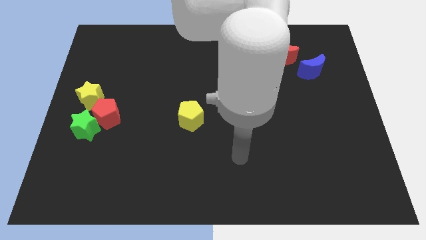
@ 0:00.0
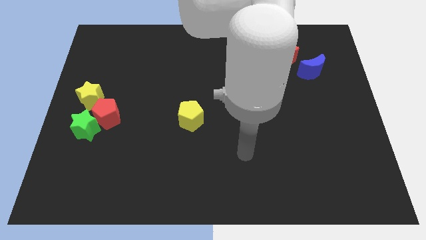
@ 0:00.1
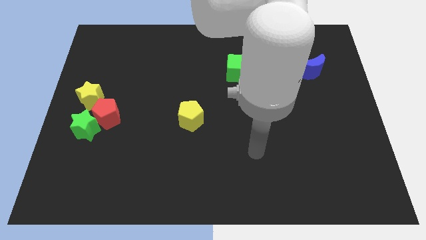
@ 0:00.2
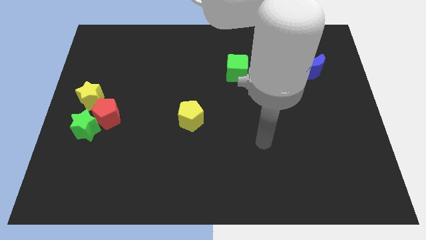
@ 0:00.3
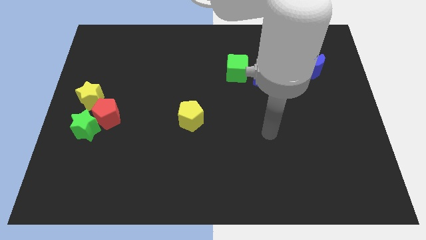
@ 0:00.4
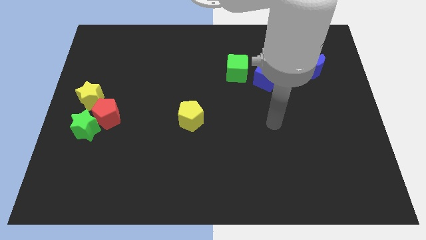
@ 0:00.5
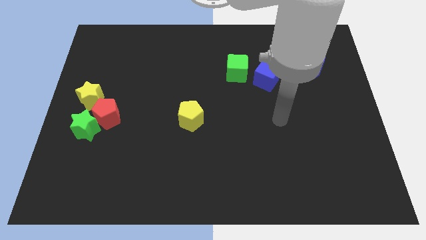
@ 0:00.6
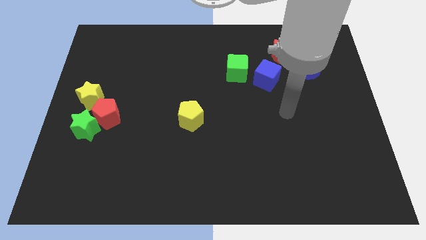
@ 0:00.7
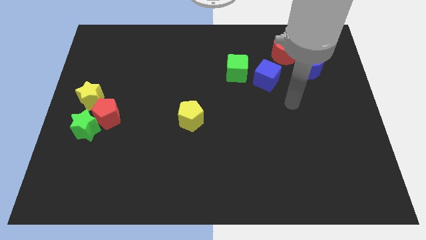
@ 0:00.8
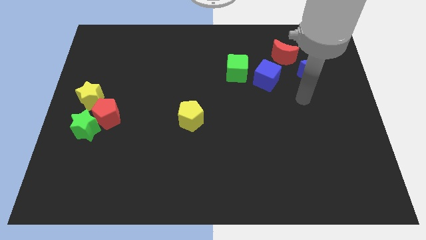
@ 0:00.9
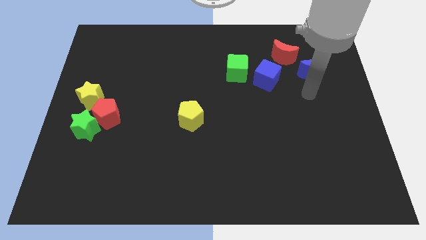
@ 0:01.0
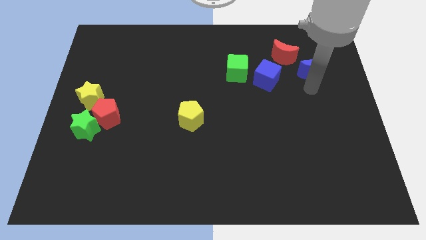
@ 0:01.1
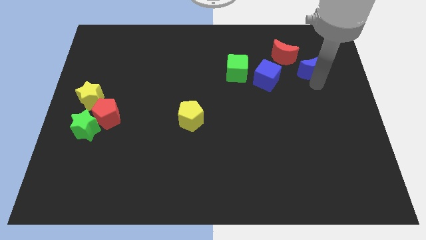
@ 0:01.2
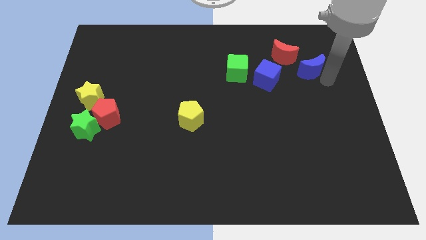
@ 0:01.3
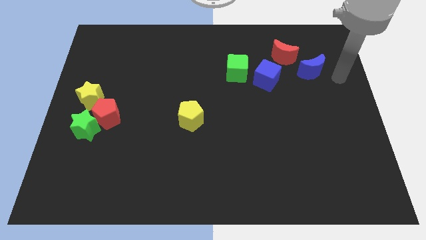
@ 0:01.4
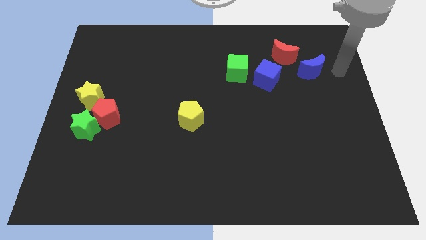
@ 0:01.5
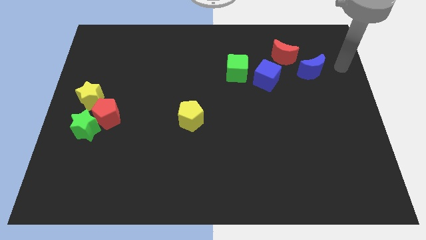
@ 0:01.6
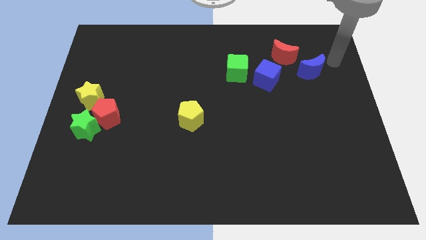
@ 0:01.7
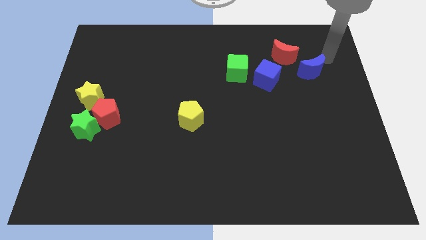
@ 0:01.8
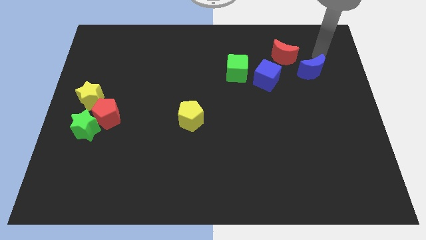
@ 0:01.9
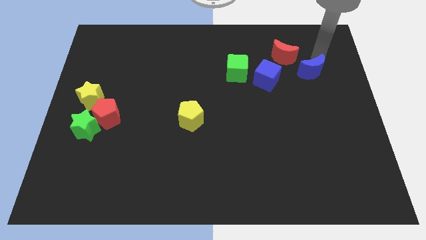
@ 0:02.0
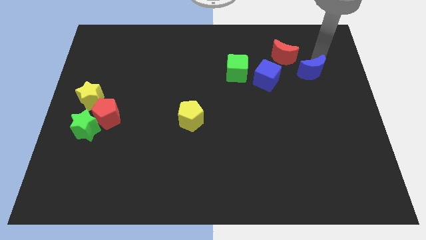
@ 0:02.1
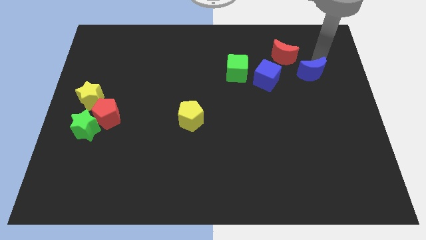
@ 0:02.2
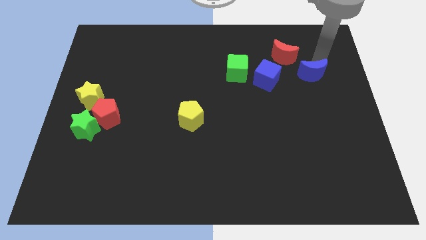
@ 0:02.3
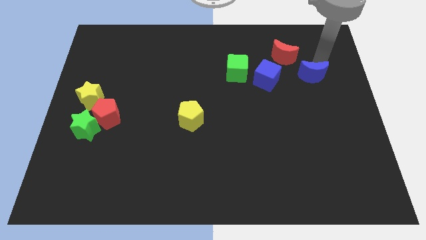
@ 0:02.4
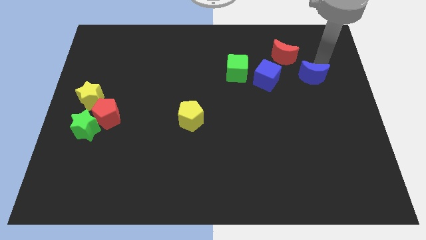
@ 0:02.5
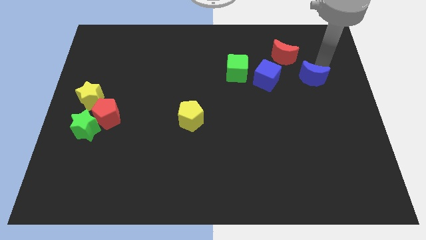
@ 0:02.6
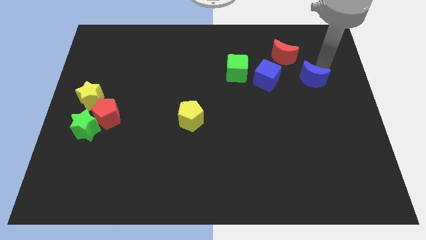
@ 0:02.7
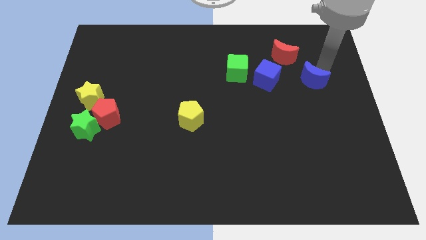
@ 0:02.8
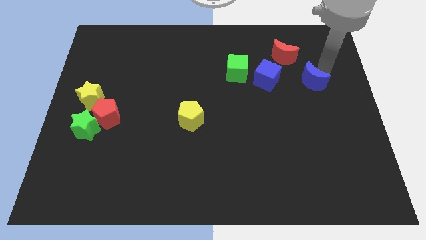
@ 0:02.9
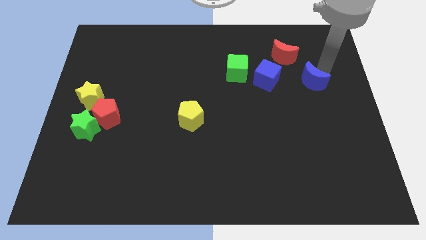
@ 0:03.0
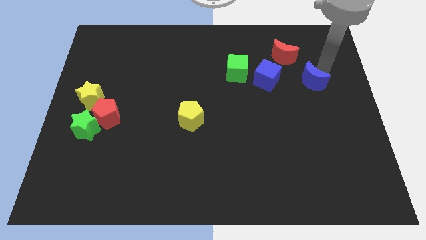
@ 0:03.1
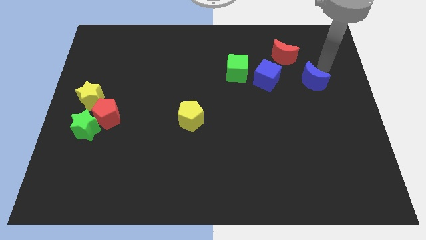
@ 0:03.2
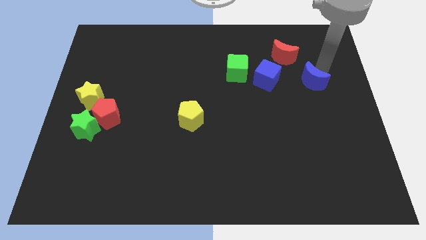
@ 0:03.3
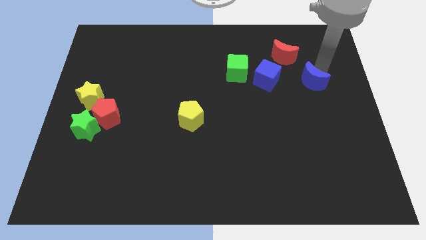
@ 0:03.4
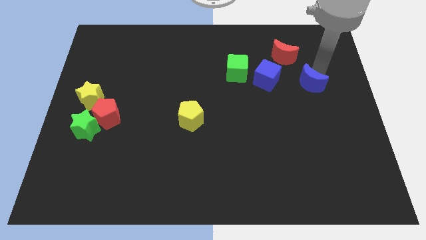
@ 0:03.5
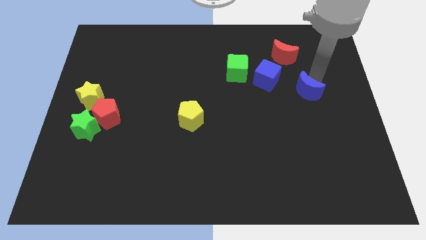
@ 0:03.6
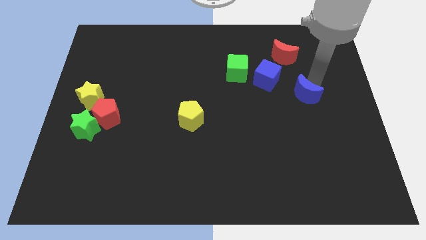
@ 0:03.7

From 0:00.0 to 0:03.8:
slide the blue moon diagonally downwards and to the left a little bit

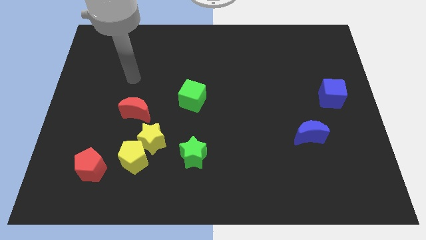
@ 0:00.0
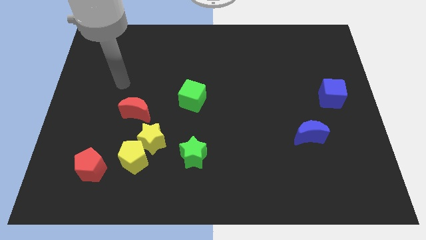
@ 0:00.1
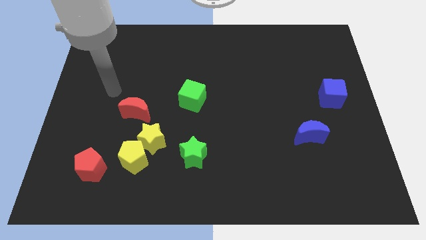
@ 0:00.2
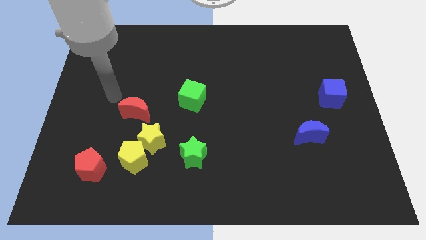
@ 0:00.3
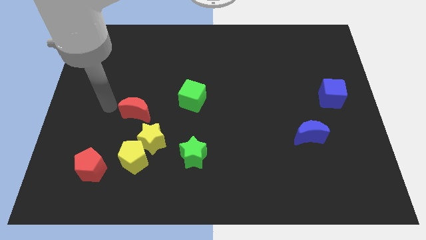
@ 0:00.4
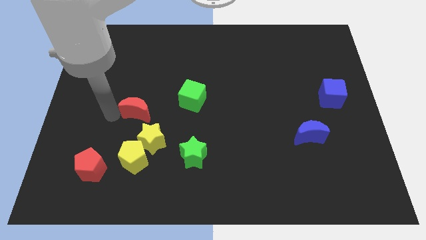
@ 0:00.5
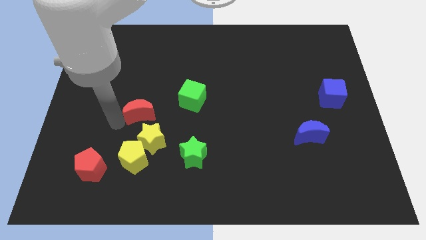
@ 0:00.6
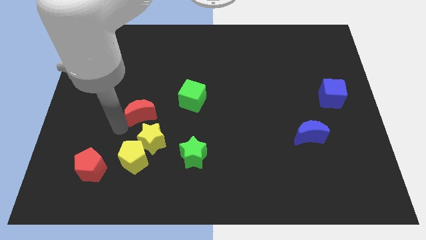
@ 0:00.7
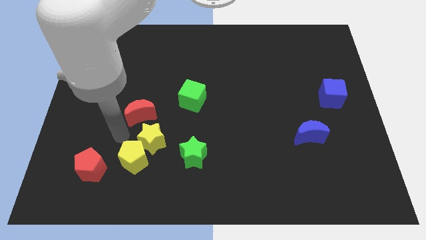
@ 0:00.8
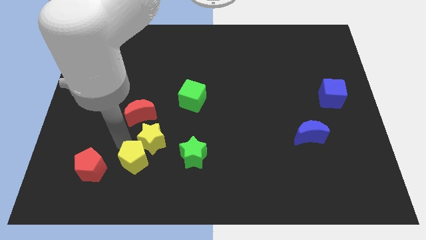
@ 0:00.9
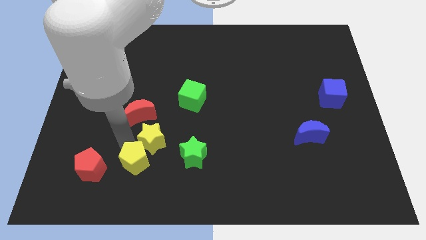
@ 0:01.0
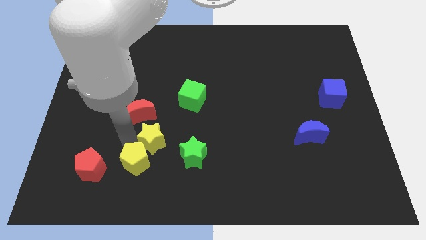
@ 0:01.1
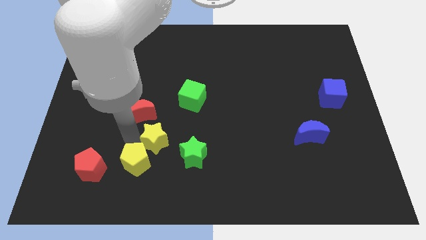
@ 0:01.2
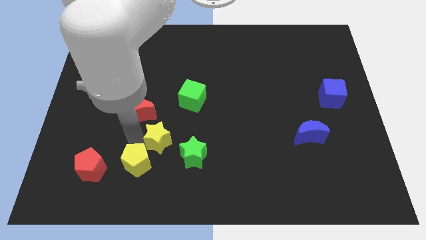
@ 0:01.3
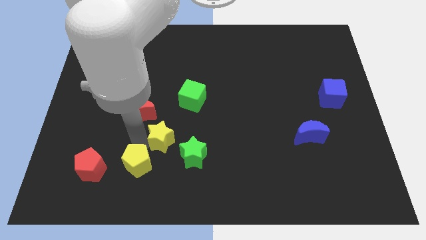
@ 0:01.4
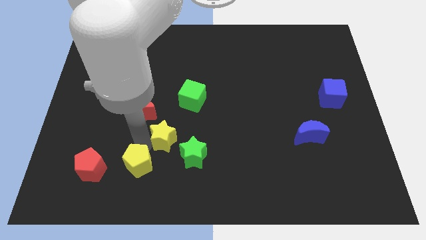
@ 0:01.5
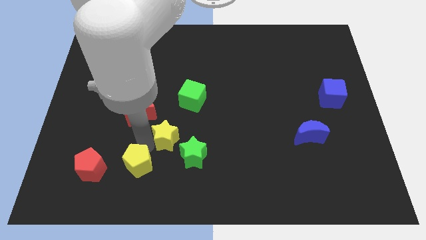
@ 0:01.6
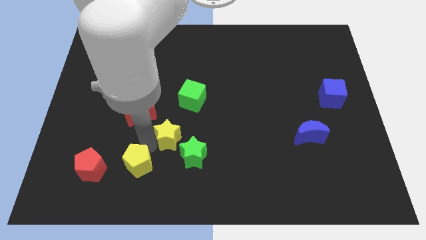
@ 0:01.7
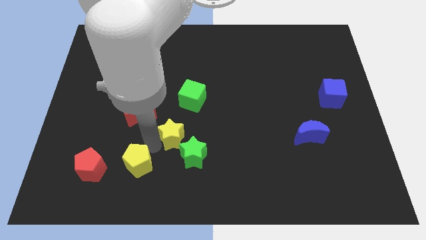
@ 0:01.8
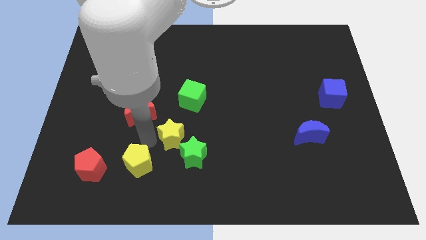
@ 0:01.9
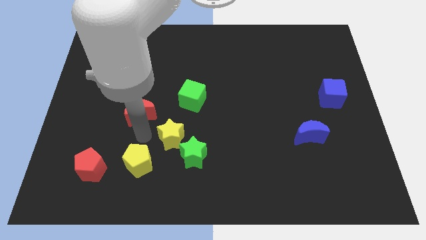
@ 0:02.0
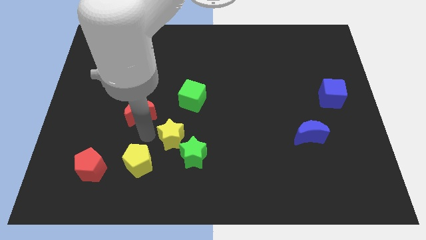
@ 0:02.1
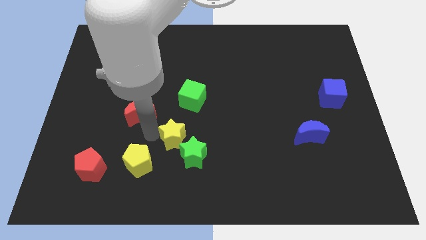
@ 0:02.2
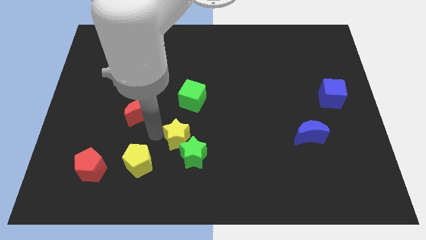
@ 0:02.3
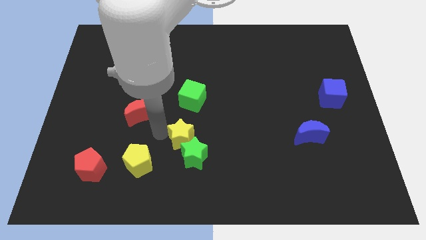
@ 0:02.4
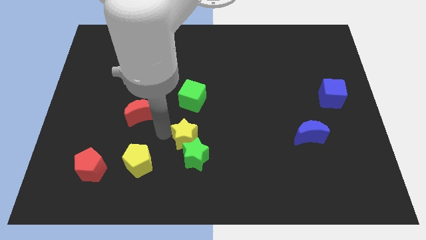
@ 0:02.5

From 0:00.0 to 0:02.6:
move the yellow star to the right slightly

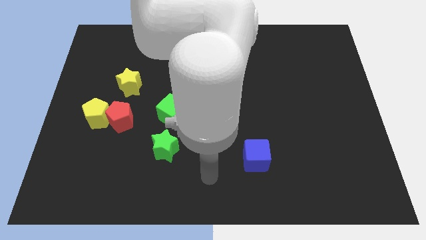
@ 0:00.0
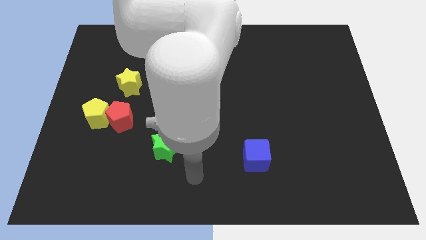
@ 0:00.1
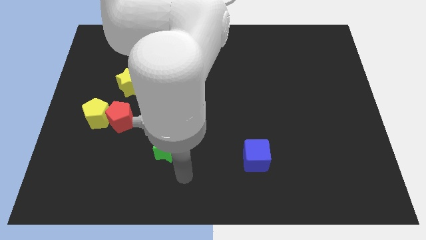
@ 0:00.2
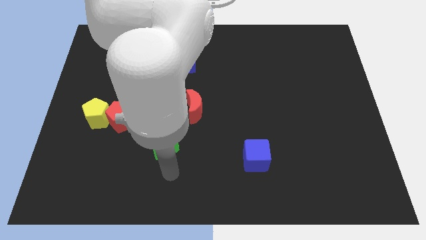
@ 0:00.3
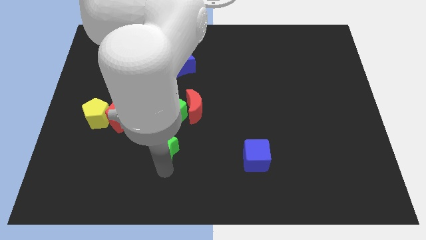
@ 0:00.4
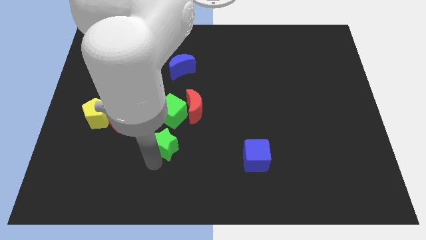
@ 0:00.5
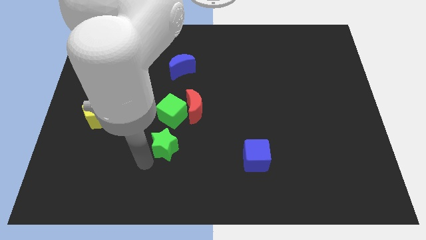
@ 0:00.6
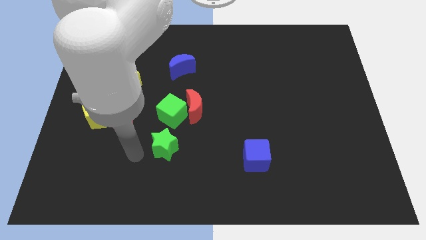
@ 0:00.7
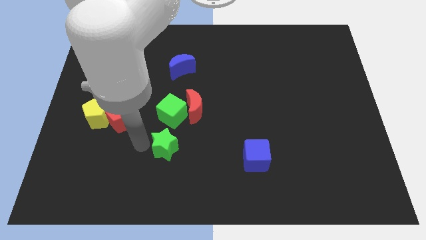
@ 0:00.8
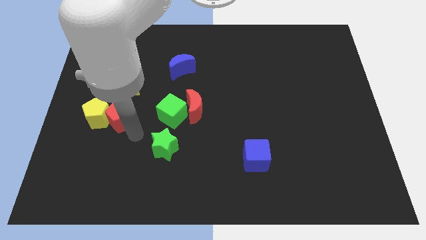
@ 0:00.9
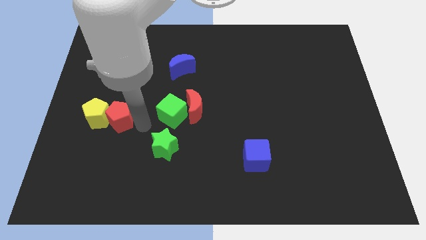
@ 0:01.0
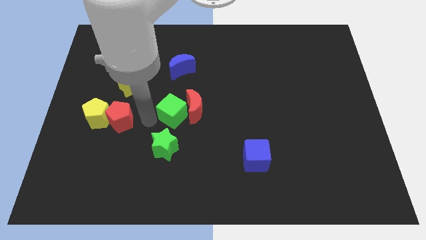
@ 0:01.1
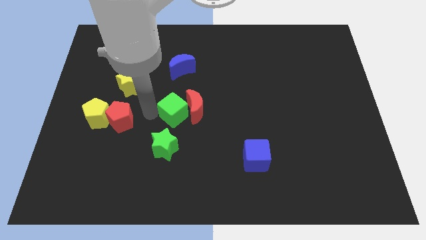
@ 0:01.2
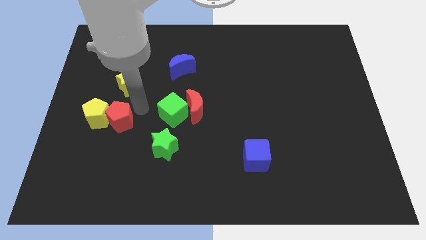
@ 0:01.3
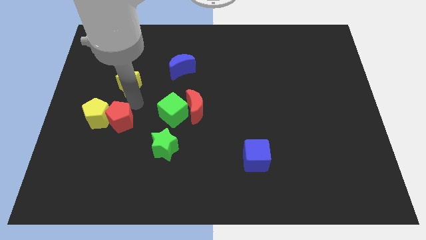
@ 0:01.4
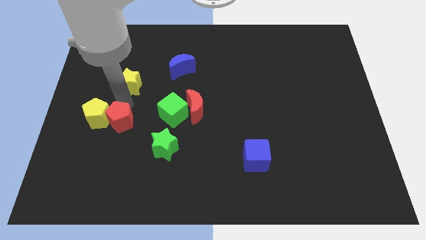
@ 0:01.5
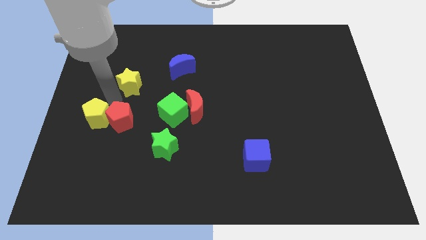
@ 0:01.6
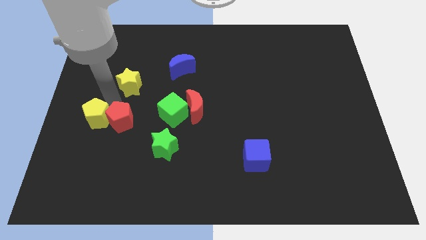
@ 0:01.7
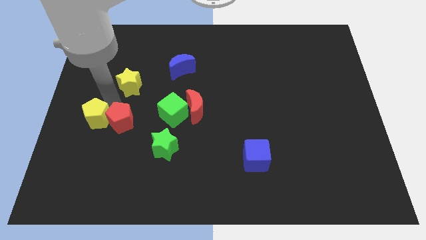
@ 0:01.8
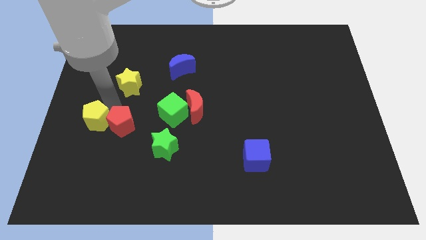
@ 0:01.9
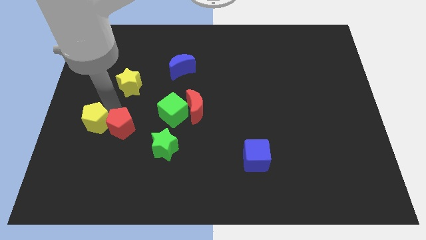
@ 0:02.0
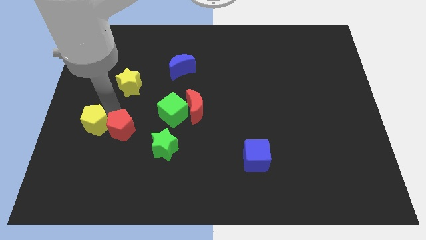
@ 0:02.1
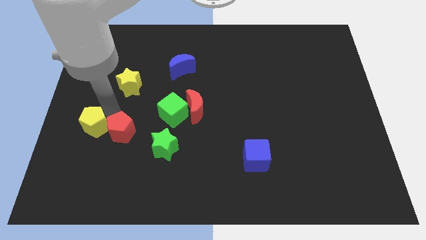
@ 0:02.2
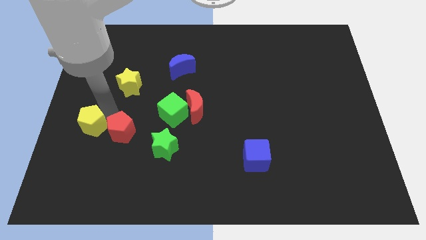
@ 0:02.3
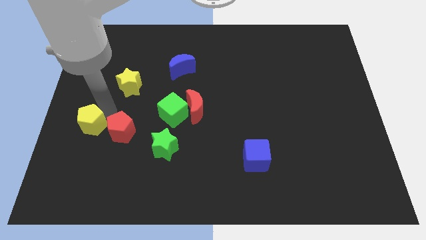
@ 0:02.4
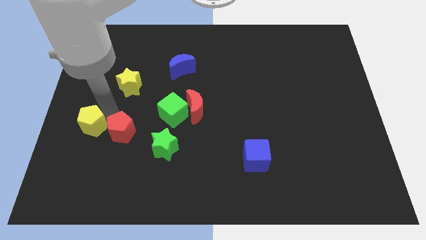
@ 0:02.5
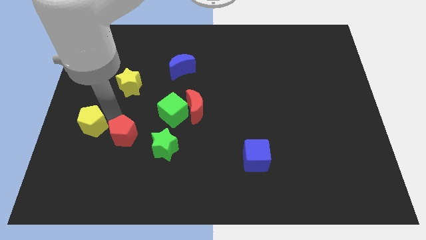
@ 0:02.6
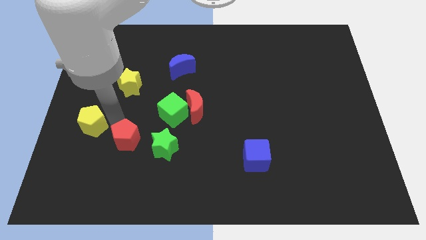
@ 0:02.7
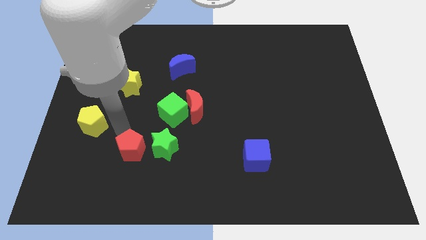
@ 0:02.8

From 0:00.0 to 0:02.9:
slightly push the red pentagon down and right diagonally
